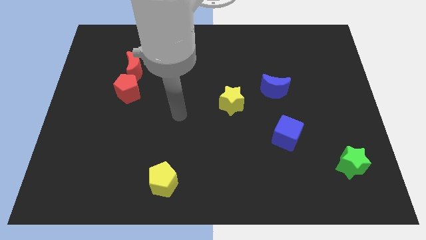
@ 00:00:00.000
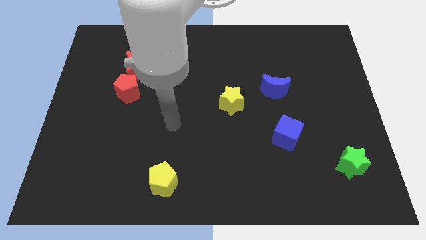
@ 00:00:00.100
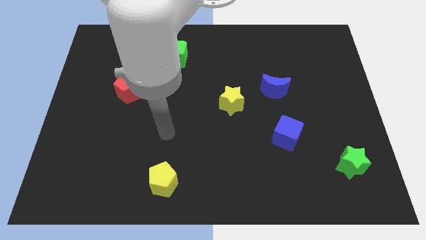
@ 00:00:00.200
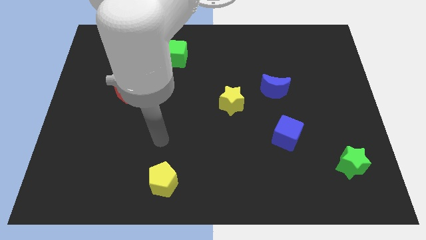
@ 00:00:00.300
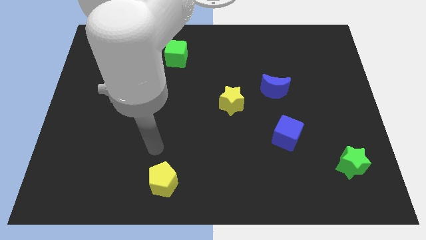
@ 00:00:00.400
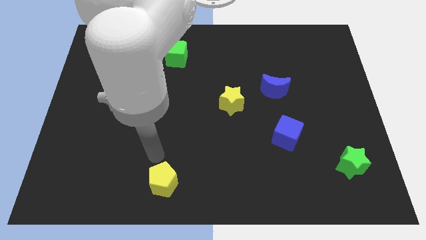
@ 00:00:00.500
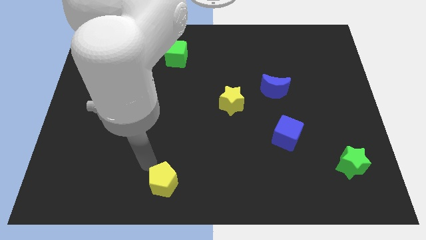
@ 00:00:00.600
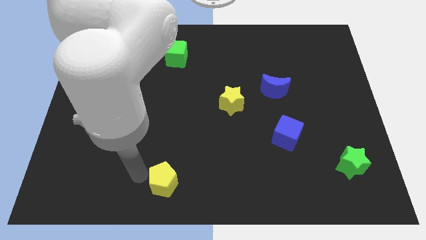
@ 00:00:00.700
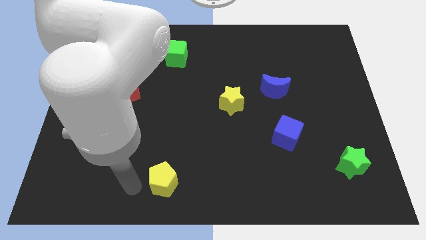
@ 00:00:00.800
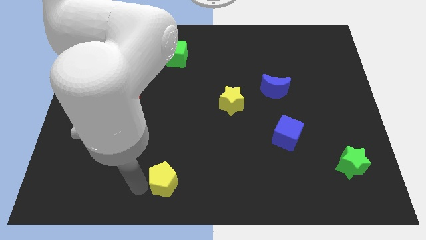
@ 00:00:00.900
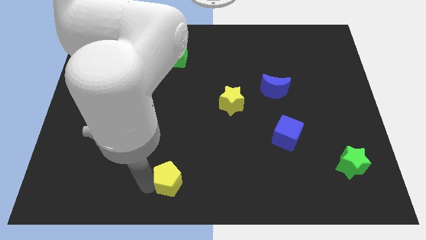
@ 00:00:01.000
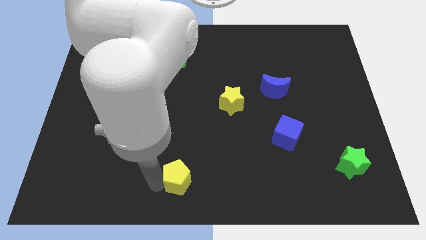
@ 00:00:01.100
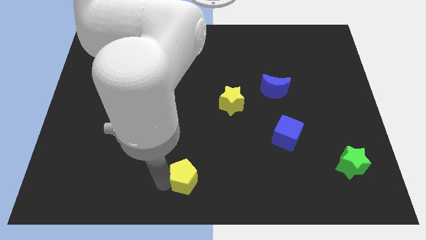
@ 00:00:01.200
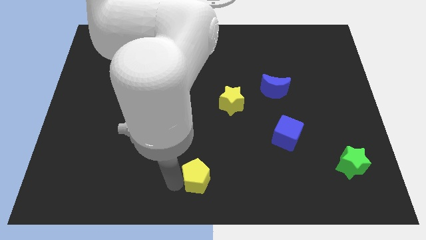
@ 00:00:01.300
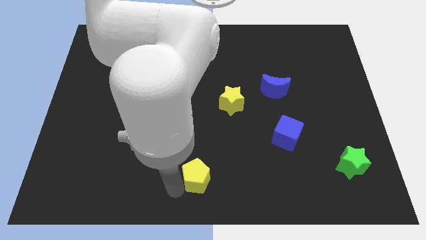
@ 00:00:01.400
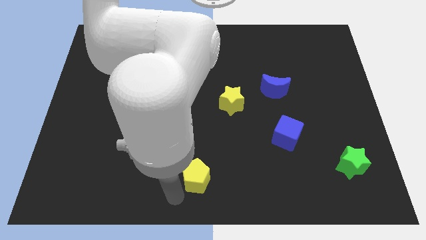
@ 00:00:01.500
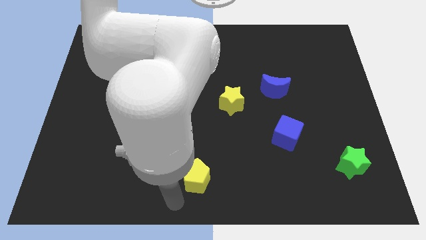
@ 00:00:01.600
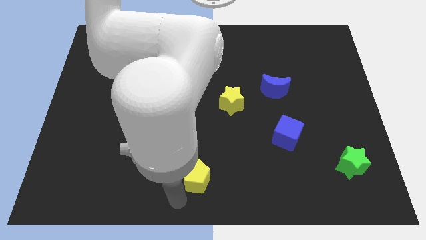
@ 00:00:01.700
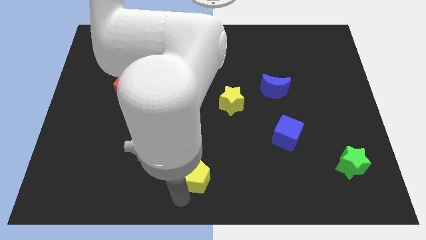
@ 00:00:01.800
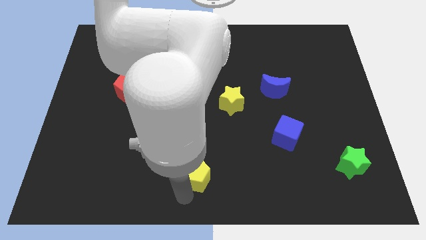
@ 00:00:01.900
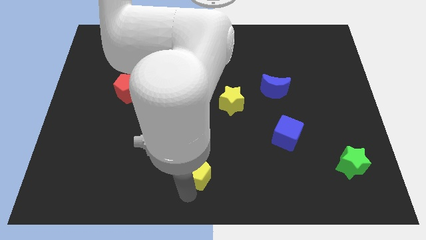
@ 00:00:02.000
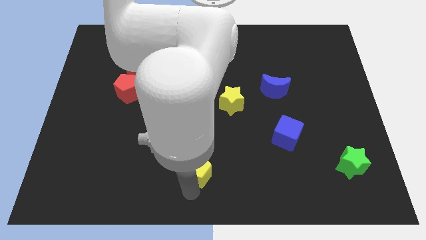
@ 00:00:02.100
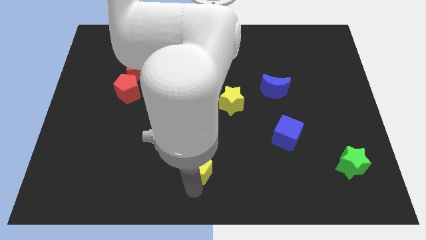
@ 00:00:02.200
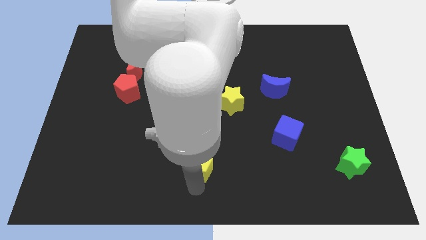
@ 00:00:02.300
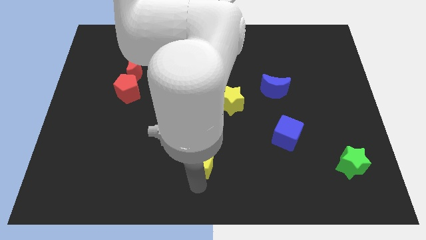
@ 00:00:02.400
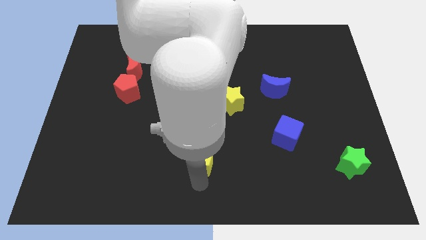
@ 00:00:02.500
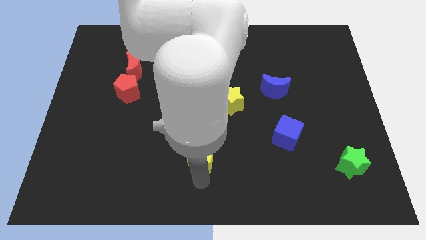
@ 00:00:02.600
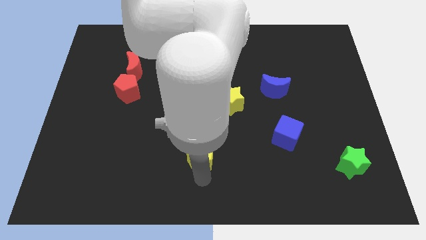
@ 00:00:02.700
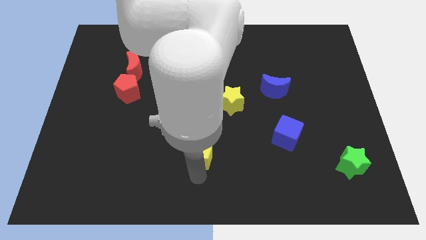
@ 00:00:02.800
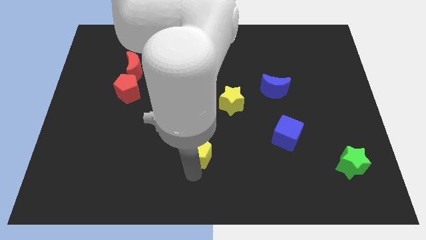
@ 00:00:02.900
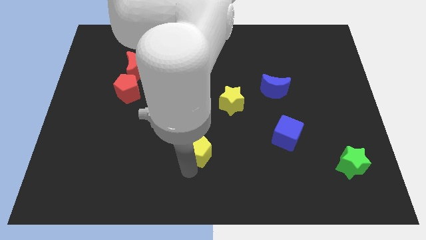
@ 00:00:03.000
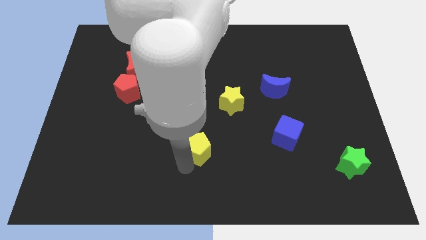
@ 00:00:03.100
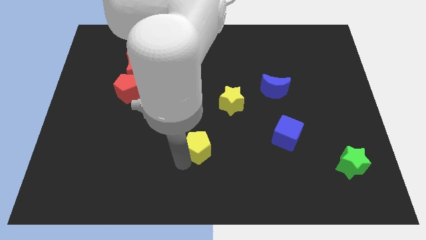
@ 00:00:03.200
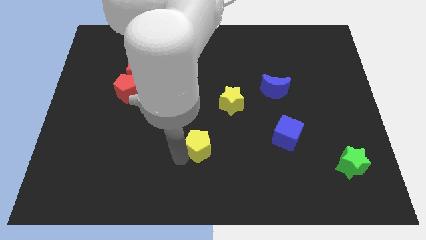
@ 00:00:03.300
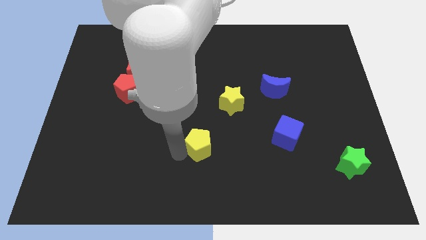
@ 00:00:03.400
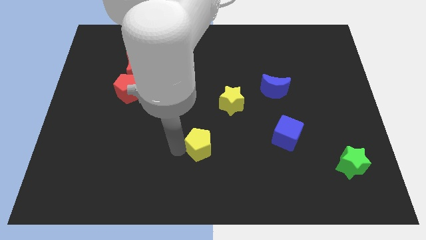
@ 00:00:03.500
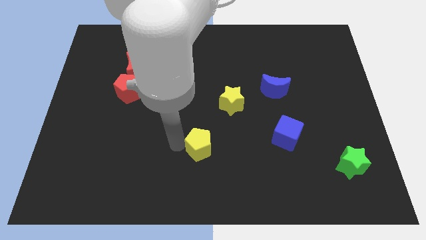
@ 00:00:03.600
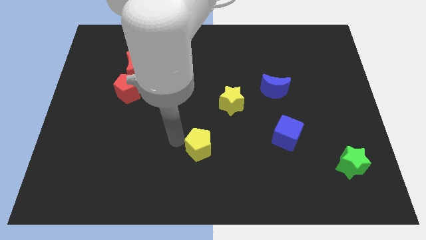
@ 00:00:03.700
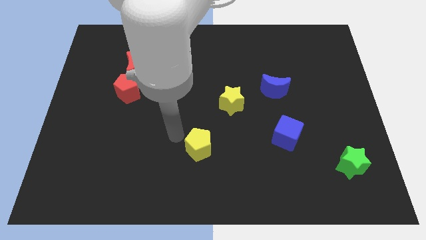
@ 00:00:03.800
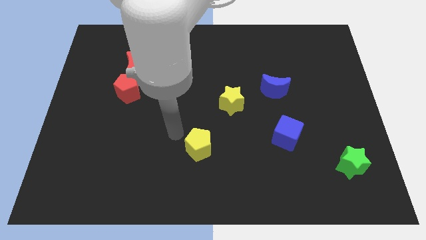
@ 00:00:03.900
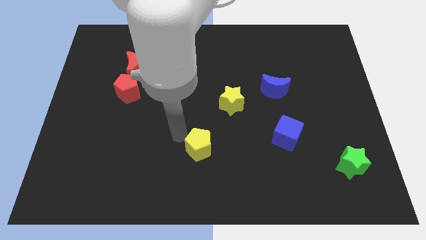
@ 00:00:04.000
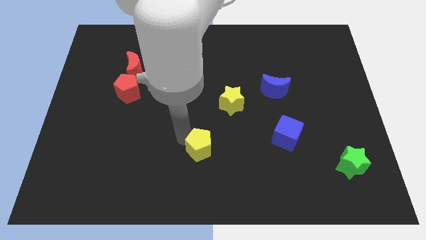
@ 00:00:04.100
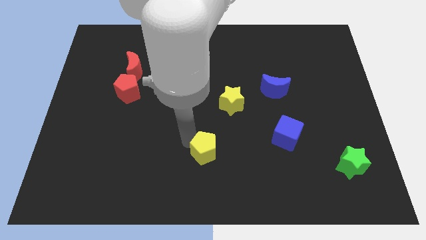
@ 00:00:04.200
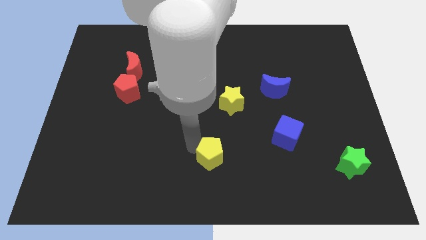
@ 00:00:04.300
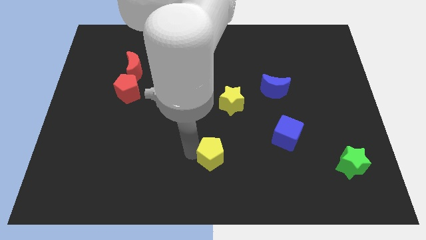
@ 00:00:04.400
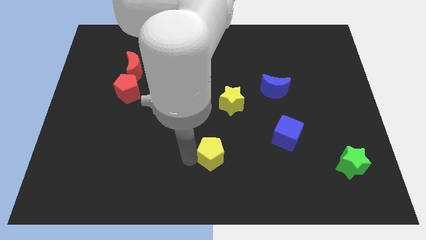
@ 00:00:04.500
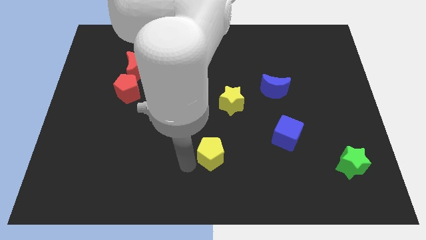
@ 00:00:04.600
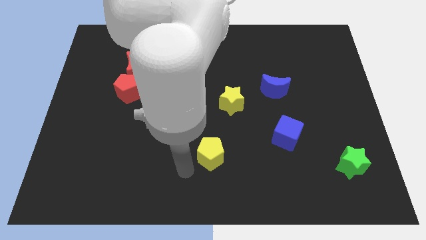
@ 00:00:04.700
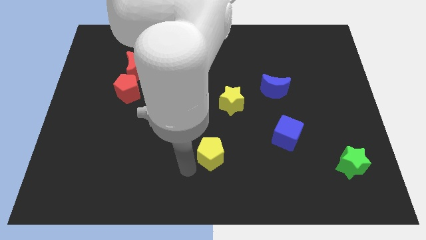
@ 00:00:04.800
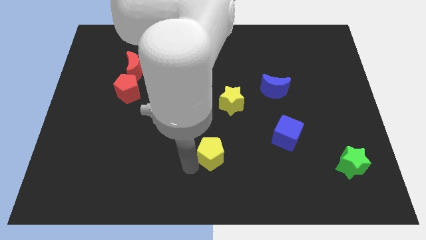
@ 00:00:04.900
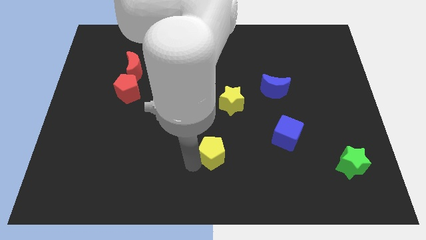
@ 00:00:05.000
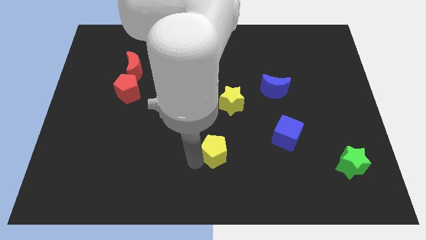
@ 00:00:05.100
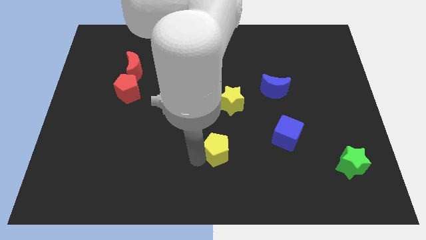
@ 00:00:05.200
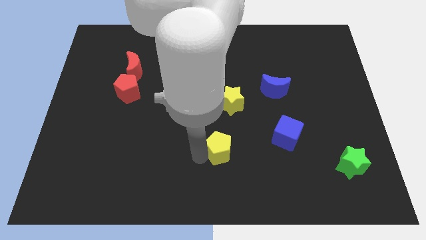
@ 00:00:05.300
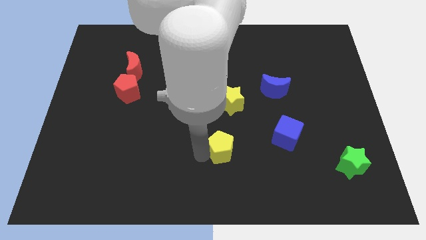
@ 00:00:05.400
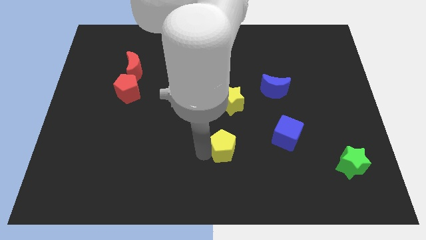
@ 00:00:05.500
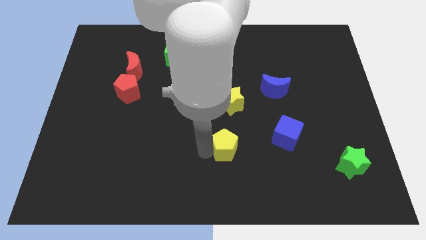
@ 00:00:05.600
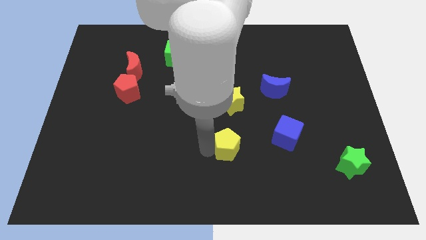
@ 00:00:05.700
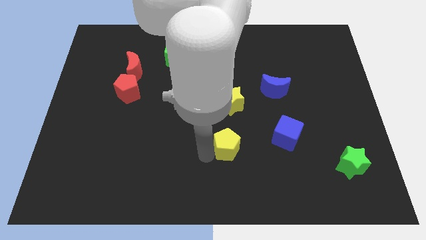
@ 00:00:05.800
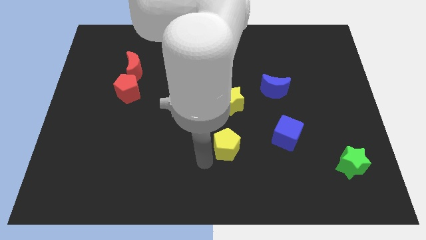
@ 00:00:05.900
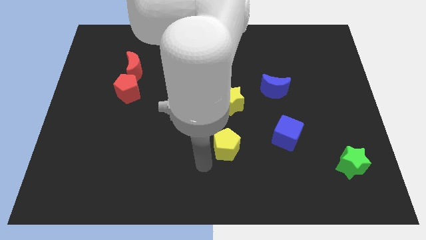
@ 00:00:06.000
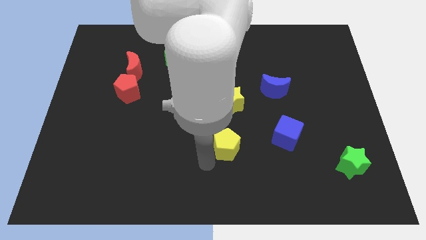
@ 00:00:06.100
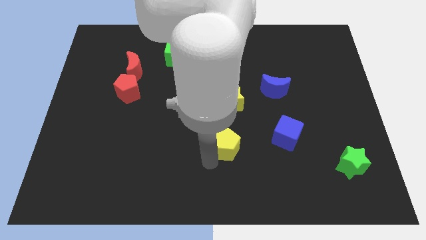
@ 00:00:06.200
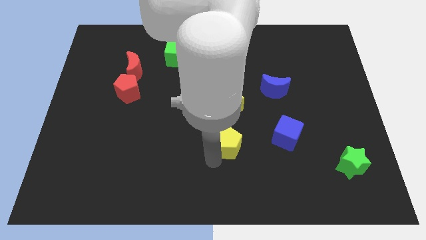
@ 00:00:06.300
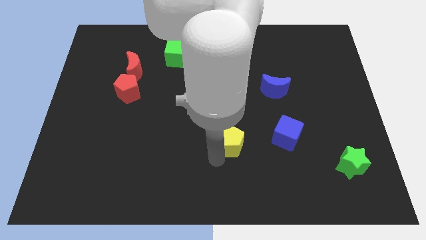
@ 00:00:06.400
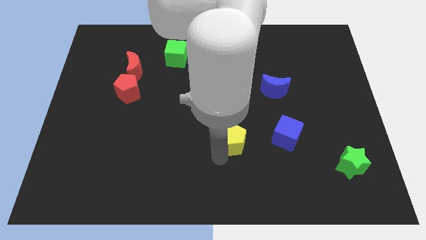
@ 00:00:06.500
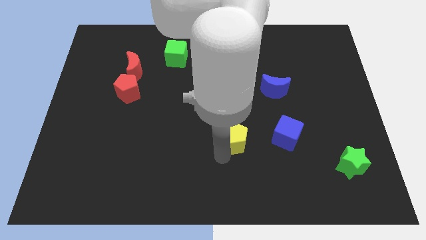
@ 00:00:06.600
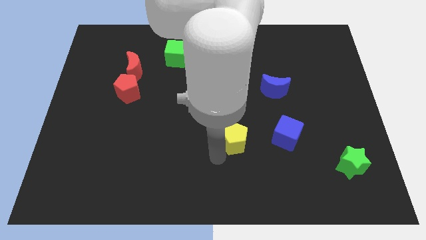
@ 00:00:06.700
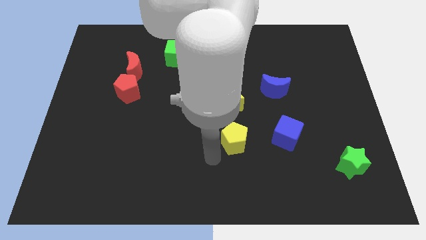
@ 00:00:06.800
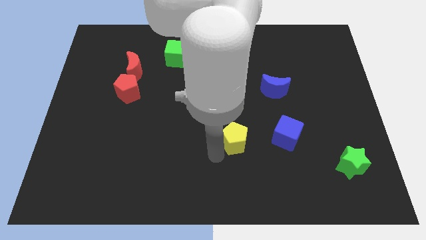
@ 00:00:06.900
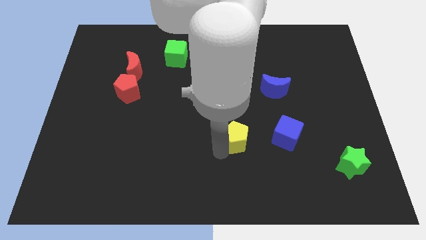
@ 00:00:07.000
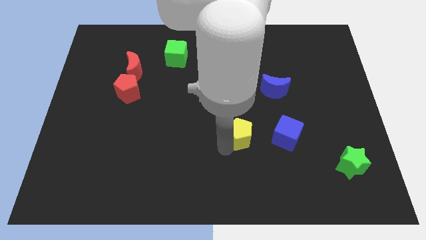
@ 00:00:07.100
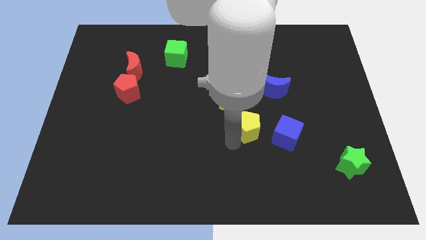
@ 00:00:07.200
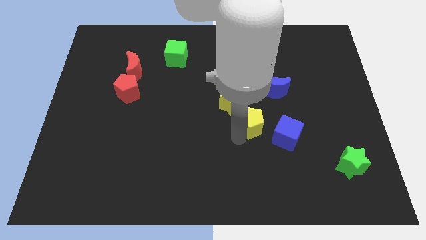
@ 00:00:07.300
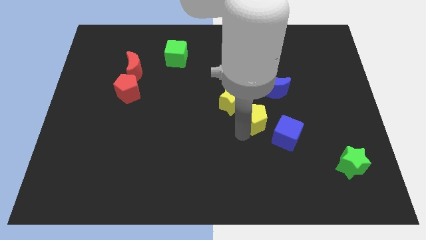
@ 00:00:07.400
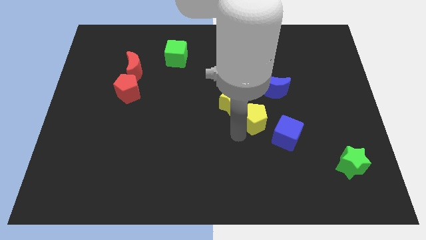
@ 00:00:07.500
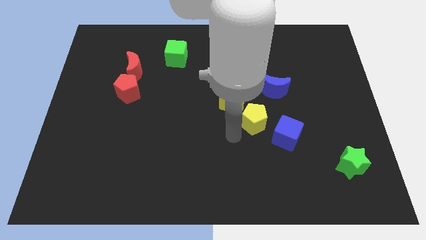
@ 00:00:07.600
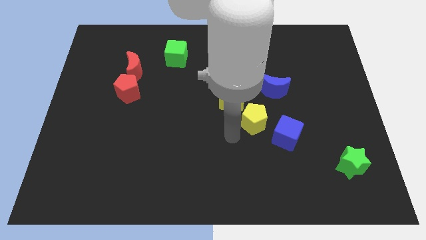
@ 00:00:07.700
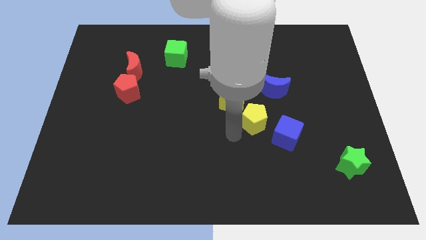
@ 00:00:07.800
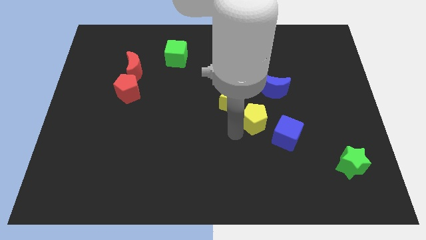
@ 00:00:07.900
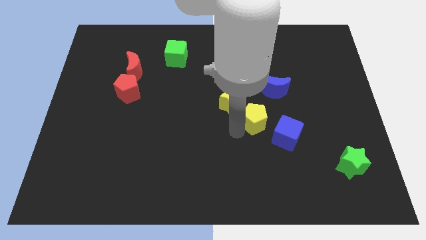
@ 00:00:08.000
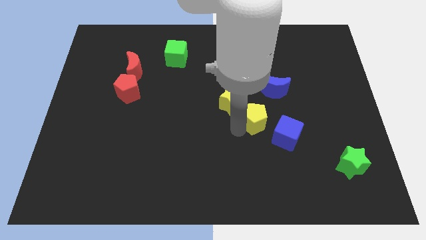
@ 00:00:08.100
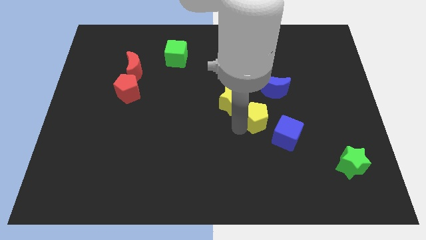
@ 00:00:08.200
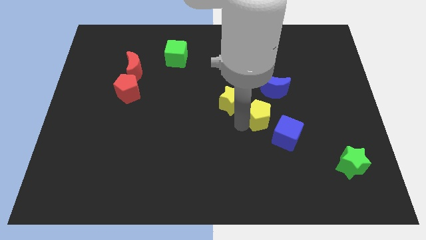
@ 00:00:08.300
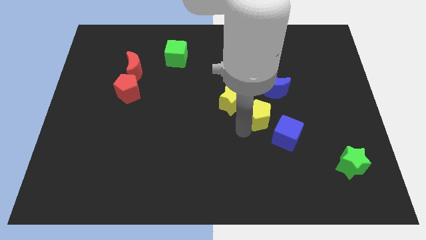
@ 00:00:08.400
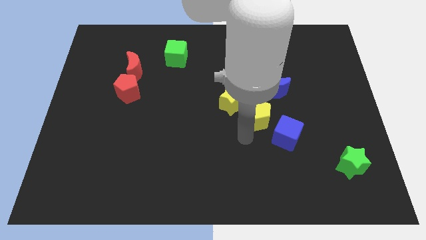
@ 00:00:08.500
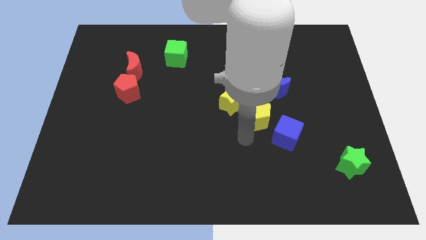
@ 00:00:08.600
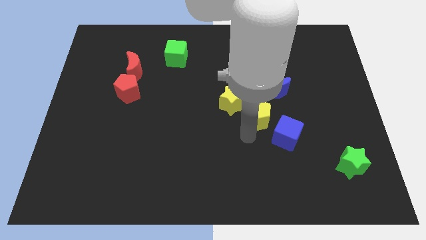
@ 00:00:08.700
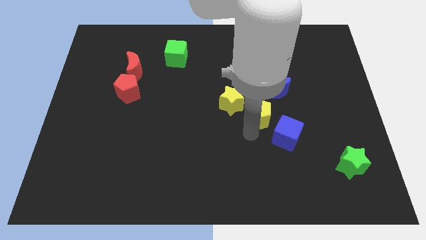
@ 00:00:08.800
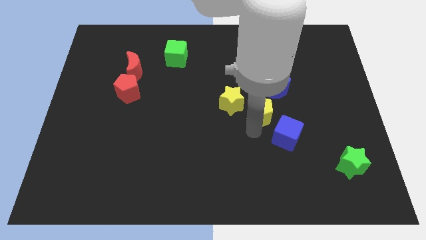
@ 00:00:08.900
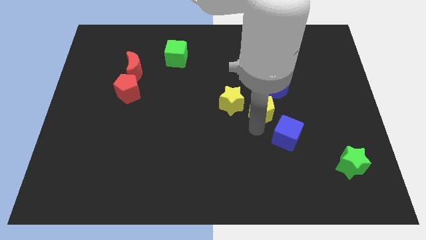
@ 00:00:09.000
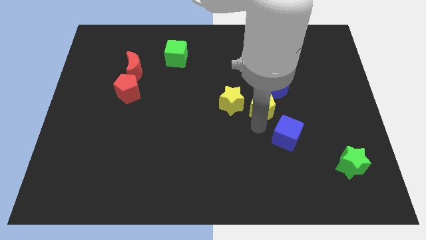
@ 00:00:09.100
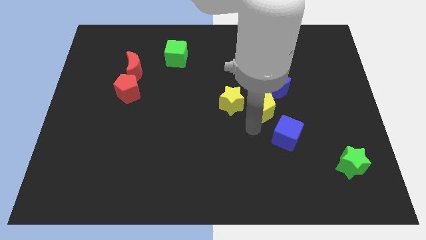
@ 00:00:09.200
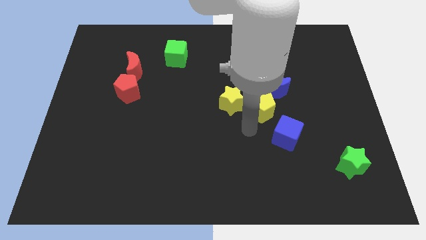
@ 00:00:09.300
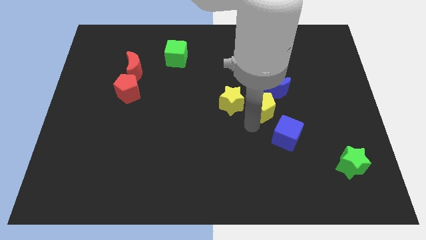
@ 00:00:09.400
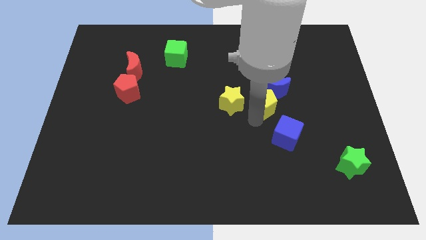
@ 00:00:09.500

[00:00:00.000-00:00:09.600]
put the yellow pentagon close to the blue moon
